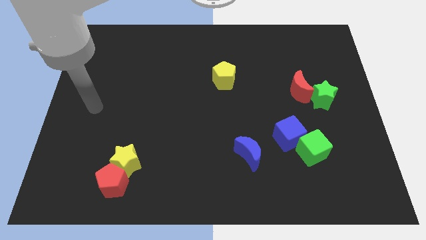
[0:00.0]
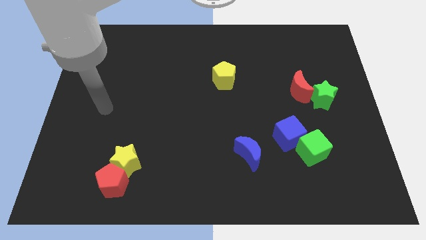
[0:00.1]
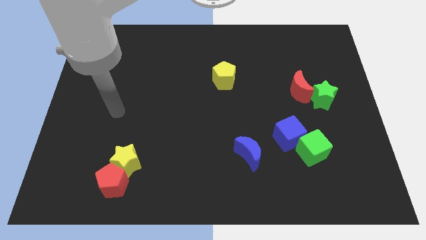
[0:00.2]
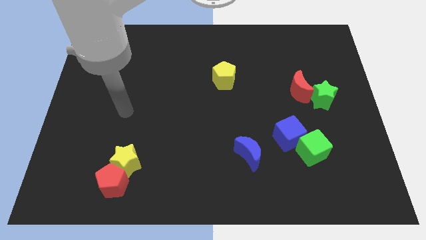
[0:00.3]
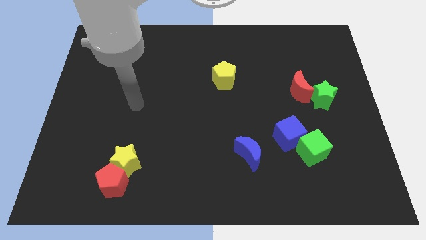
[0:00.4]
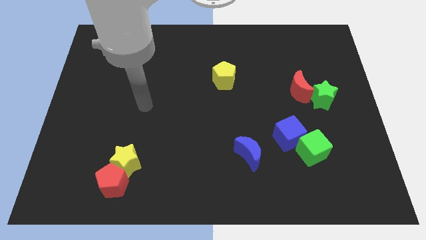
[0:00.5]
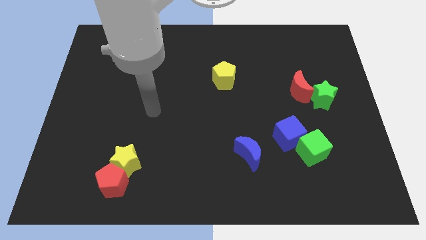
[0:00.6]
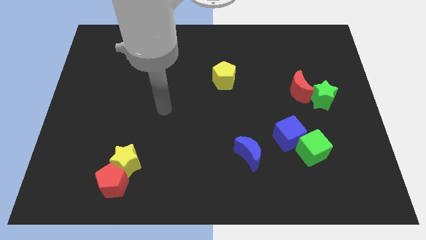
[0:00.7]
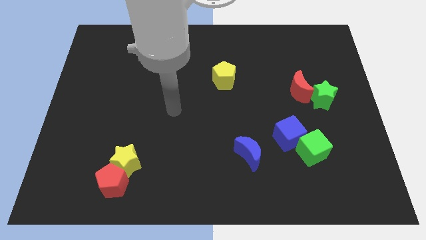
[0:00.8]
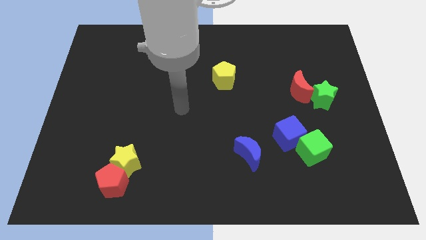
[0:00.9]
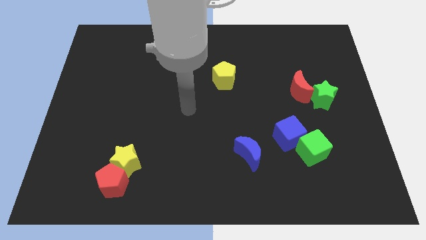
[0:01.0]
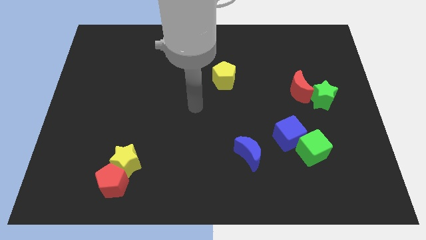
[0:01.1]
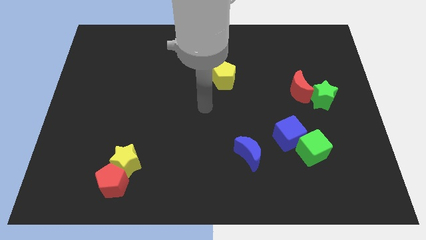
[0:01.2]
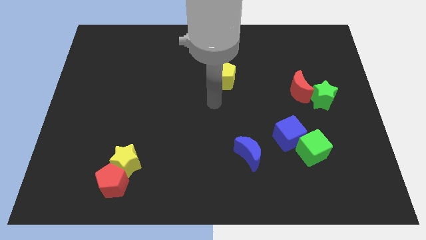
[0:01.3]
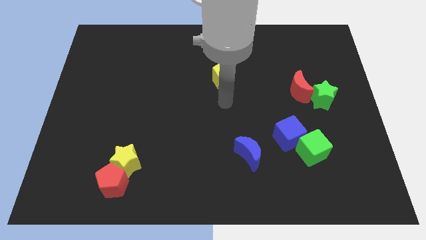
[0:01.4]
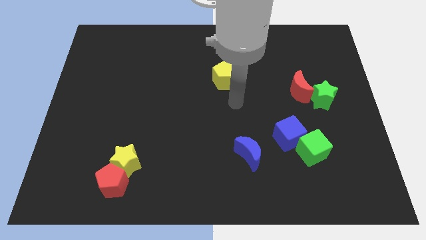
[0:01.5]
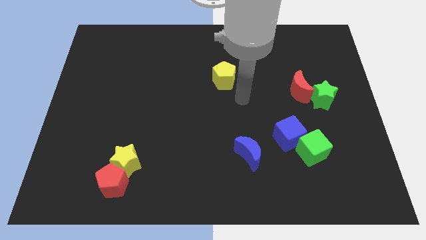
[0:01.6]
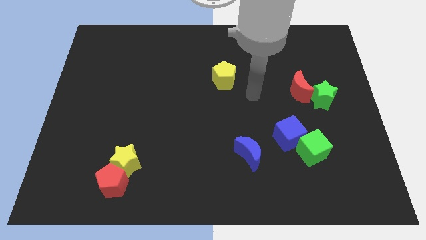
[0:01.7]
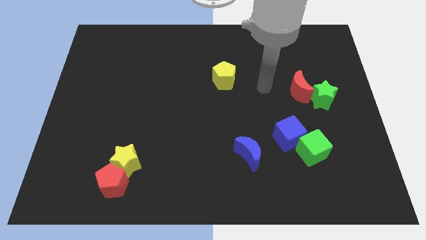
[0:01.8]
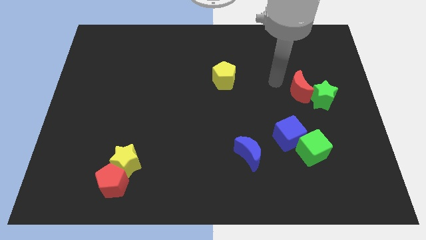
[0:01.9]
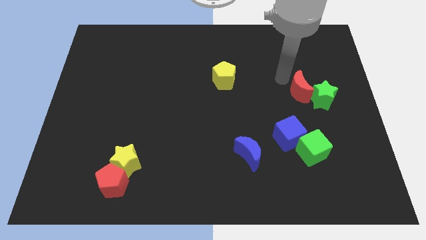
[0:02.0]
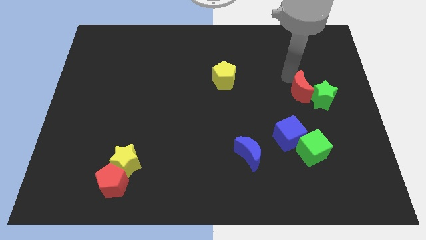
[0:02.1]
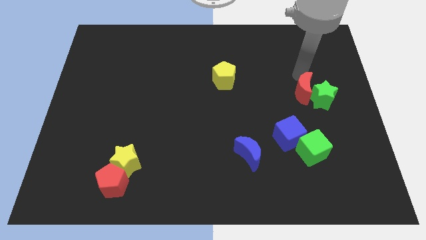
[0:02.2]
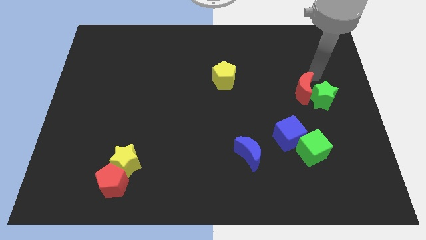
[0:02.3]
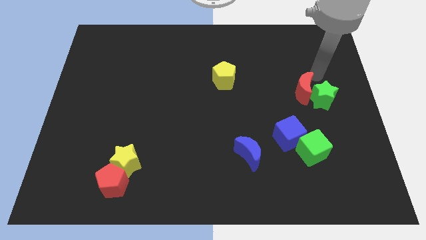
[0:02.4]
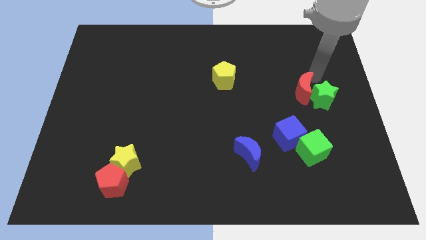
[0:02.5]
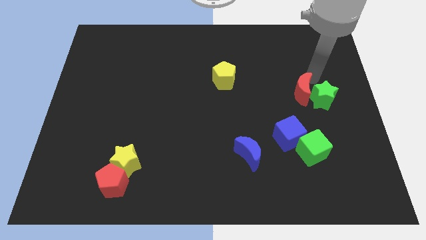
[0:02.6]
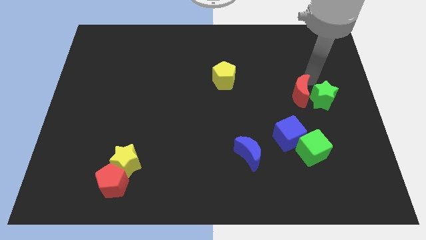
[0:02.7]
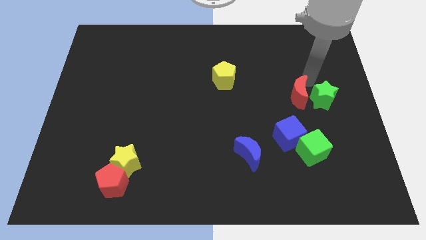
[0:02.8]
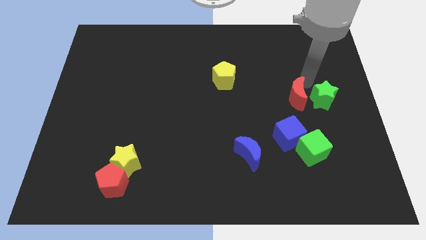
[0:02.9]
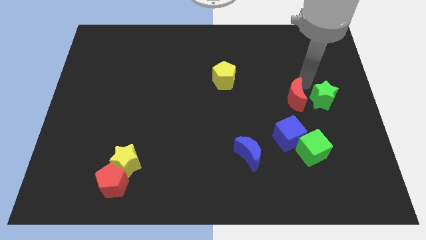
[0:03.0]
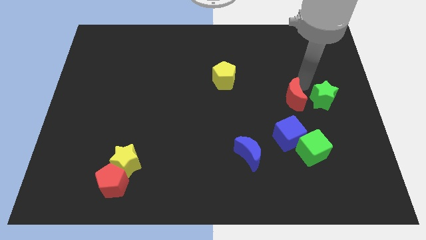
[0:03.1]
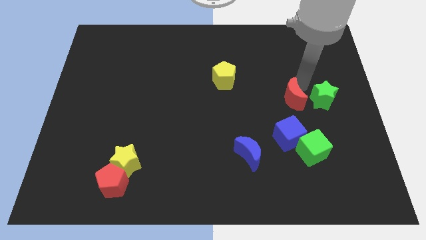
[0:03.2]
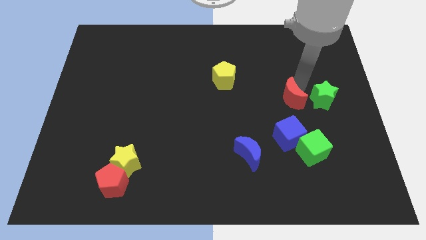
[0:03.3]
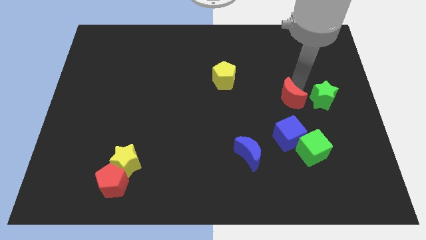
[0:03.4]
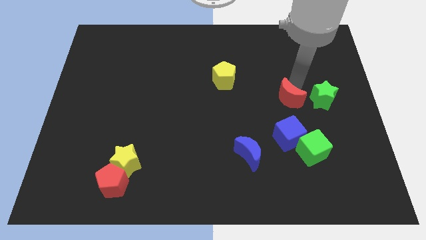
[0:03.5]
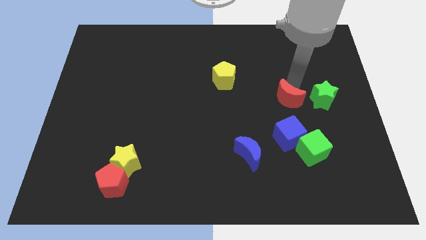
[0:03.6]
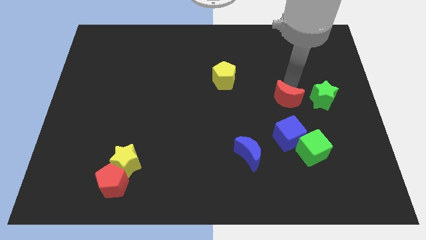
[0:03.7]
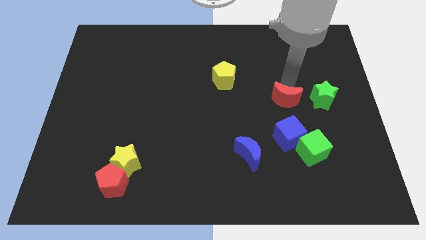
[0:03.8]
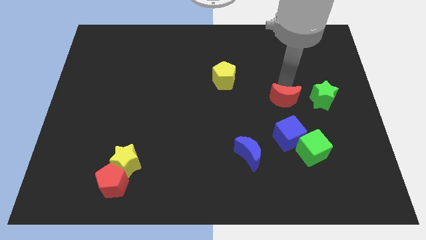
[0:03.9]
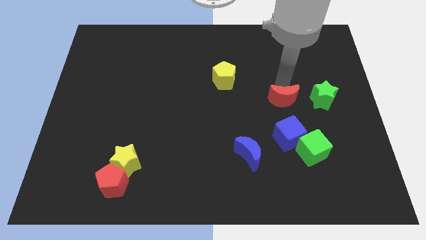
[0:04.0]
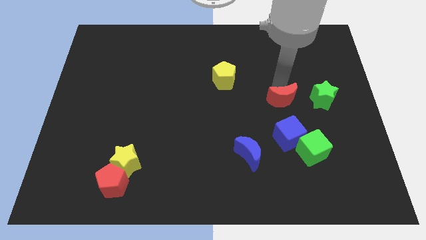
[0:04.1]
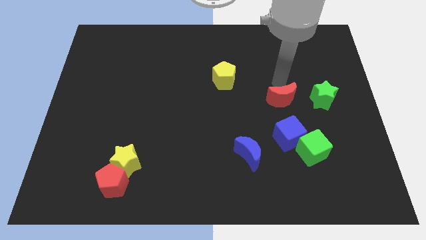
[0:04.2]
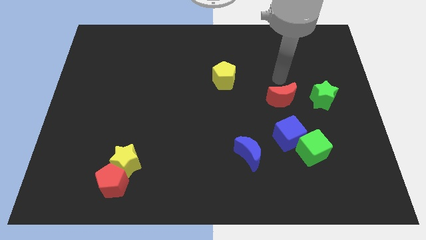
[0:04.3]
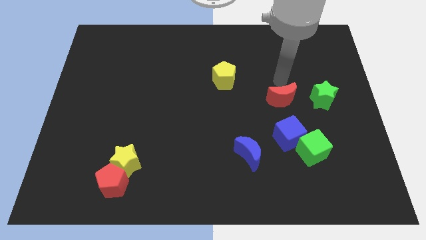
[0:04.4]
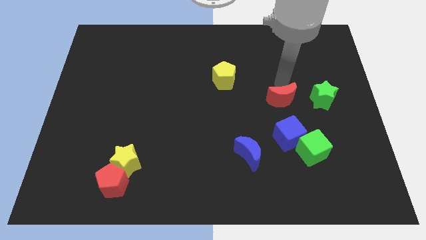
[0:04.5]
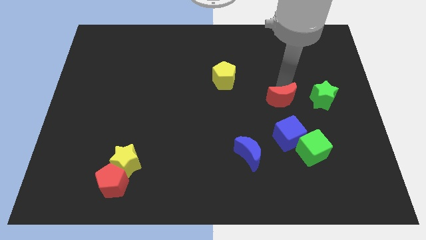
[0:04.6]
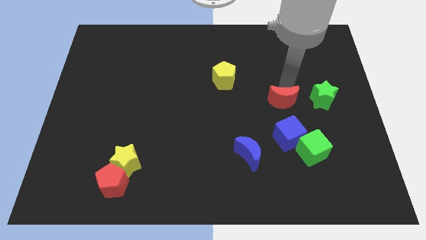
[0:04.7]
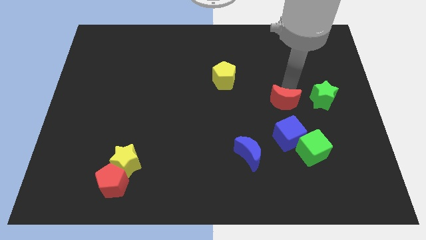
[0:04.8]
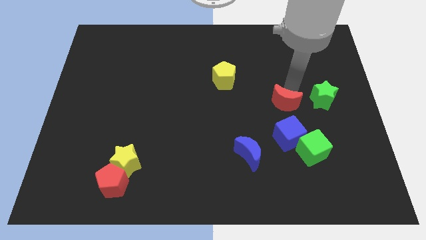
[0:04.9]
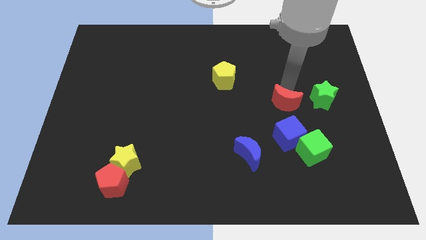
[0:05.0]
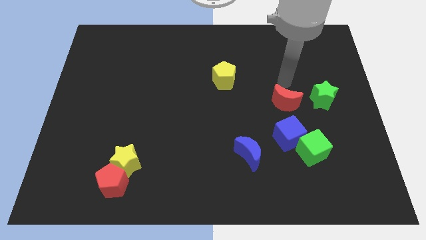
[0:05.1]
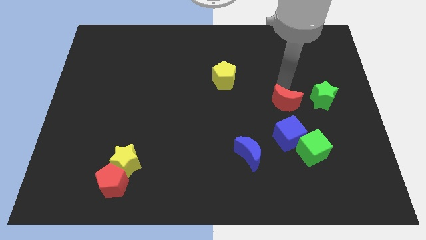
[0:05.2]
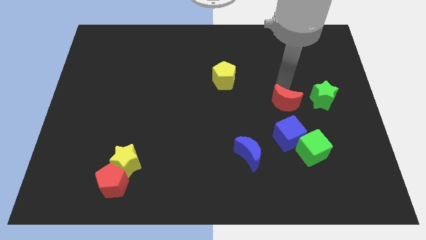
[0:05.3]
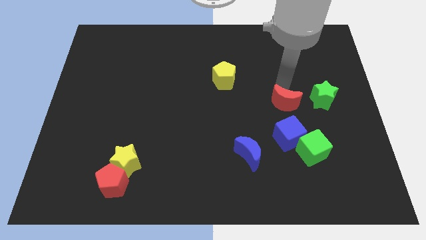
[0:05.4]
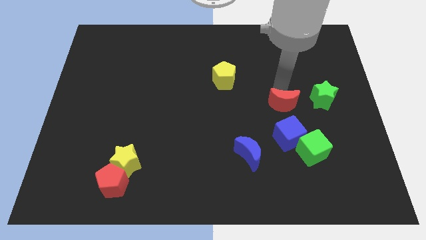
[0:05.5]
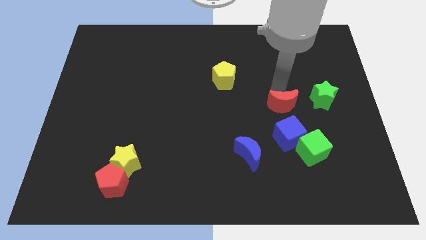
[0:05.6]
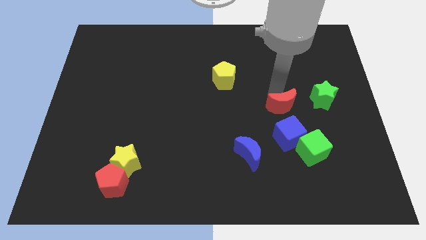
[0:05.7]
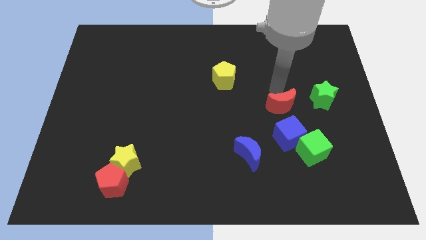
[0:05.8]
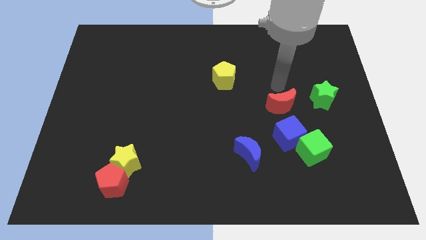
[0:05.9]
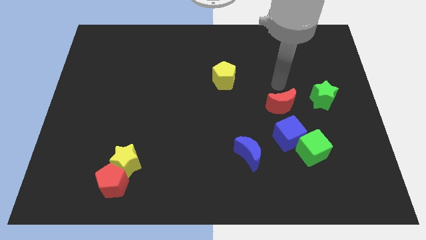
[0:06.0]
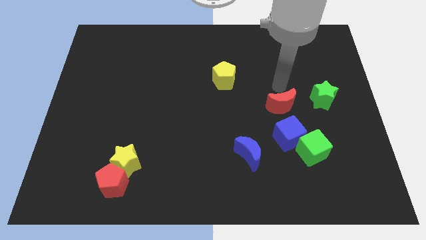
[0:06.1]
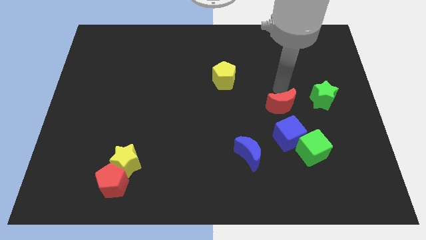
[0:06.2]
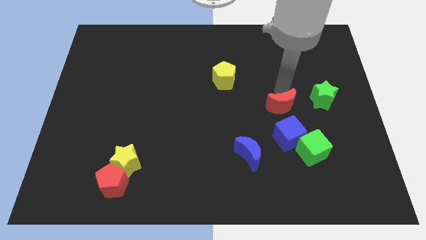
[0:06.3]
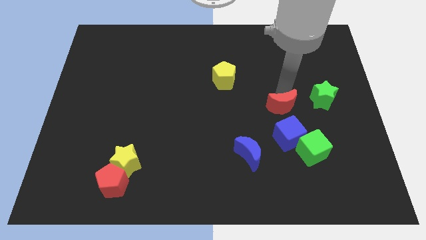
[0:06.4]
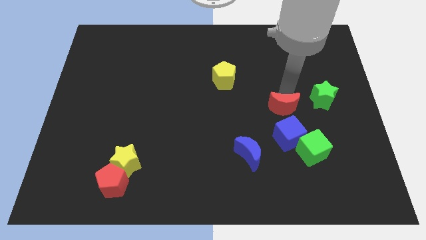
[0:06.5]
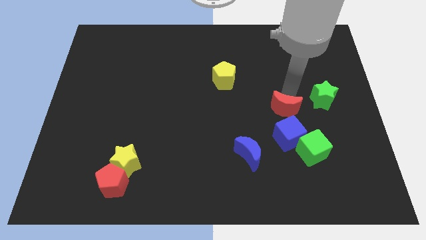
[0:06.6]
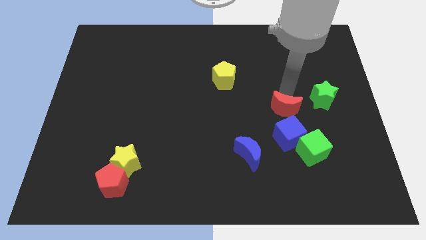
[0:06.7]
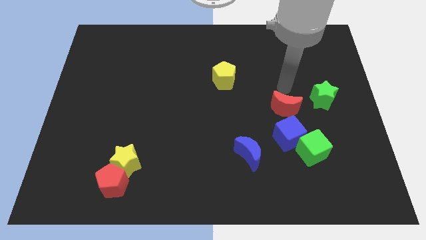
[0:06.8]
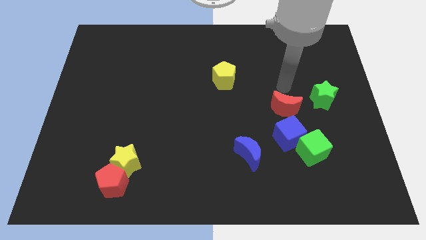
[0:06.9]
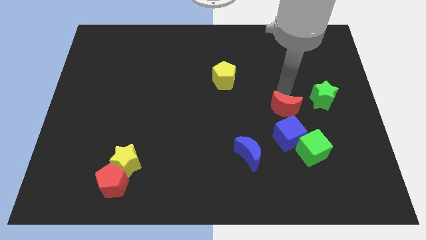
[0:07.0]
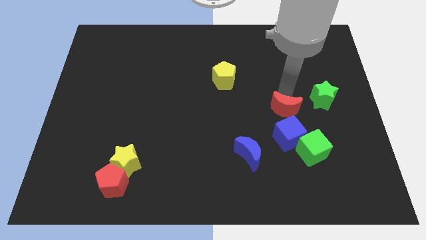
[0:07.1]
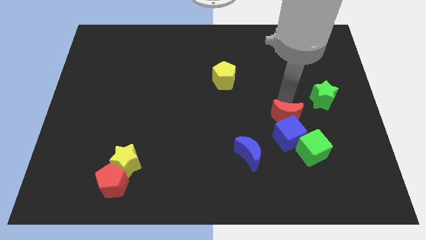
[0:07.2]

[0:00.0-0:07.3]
move the red moon diagonally up and to the left of the green cube

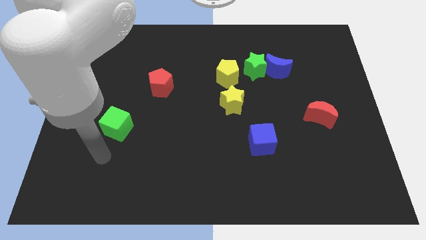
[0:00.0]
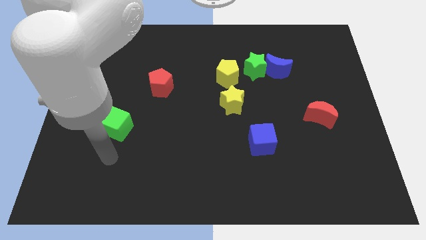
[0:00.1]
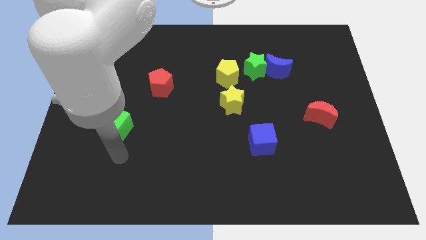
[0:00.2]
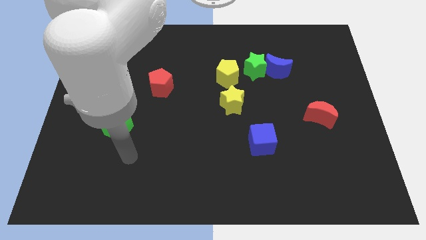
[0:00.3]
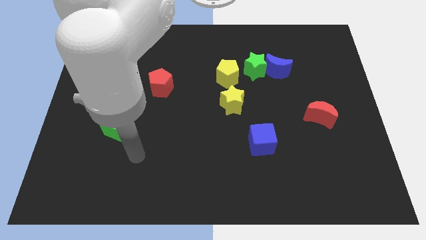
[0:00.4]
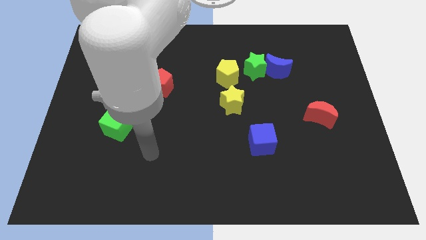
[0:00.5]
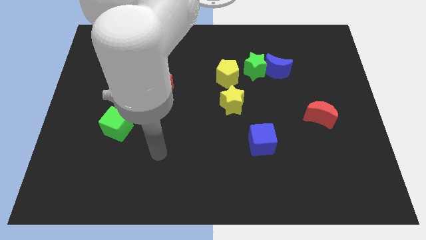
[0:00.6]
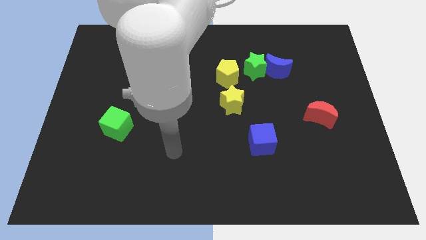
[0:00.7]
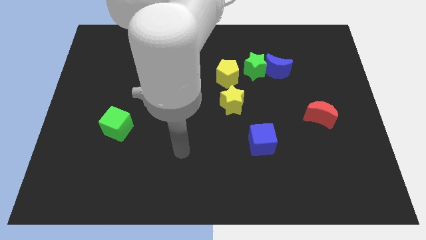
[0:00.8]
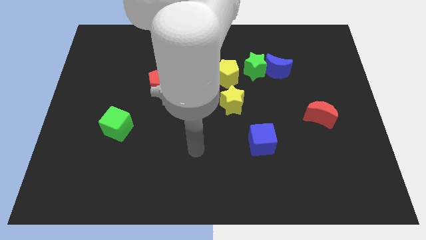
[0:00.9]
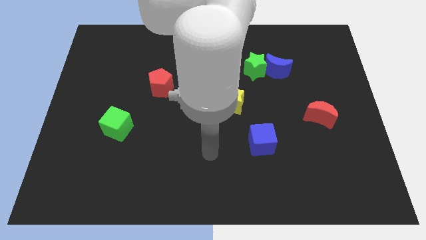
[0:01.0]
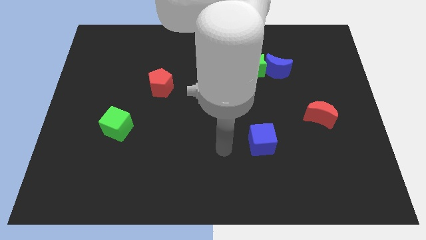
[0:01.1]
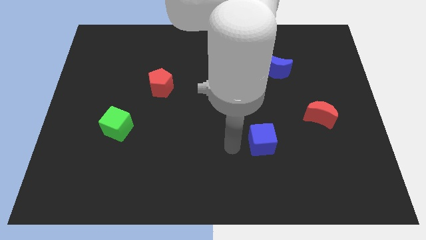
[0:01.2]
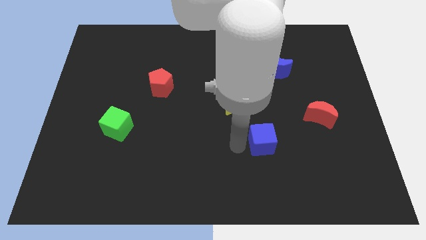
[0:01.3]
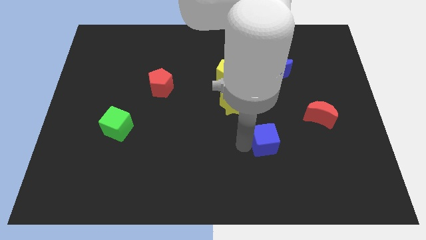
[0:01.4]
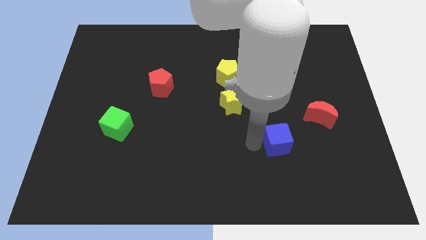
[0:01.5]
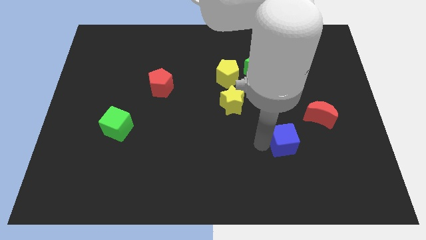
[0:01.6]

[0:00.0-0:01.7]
slide the blue cube diagonally down and to the left of the red moon
